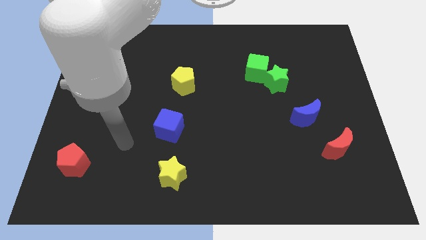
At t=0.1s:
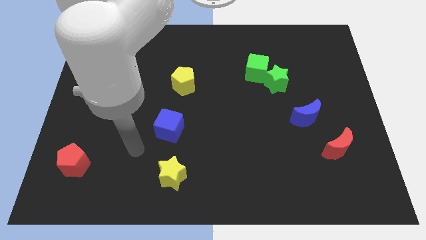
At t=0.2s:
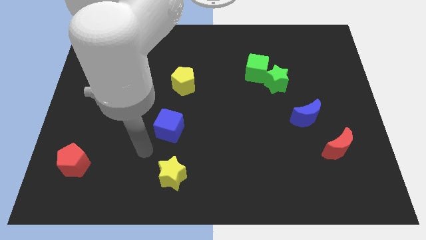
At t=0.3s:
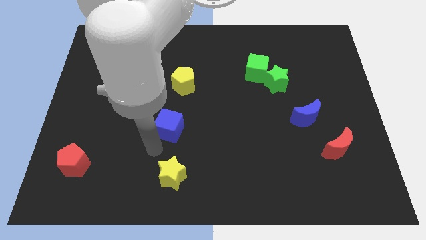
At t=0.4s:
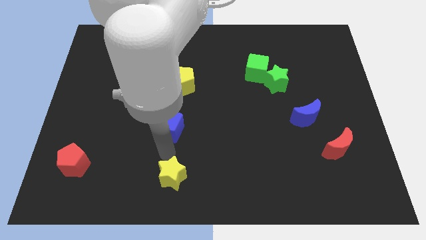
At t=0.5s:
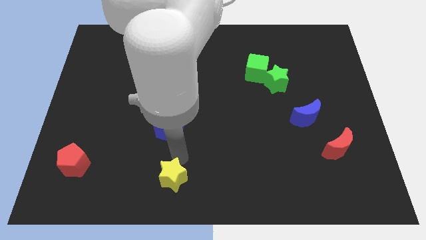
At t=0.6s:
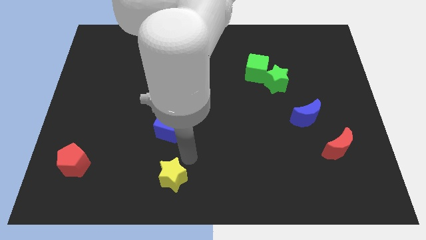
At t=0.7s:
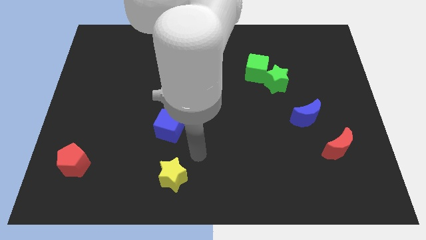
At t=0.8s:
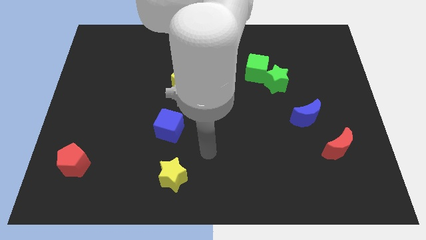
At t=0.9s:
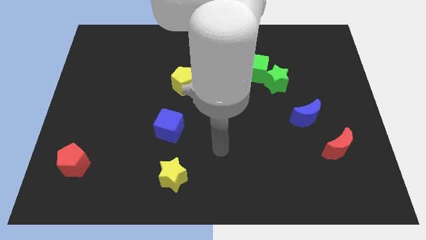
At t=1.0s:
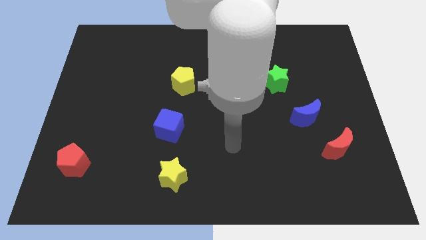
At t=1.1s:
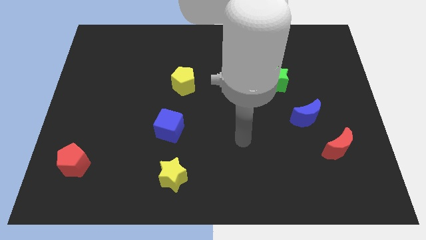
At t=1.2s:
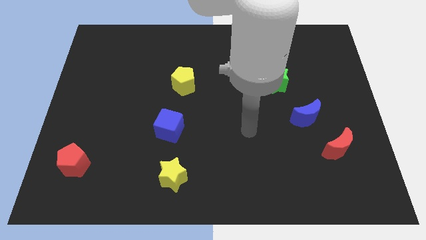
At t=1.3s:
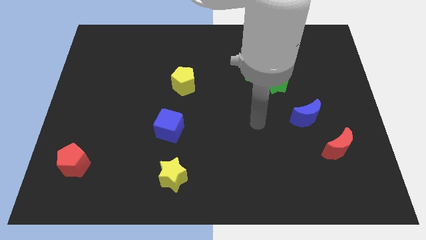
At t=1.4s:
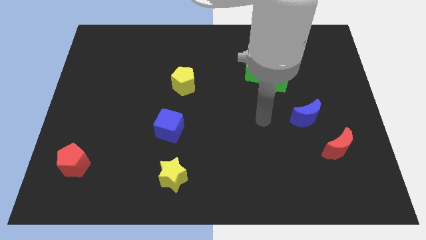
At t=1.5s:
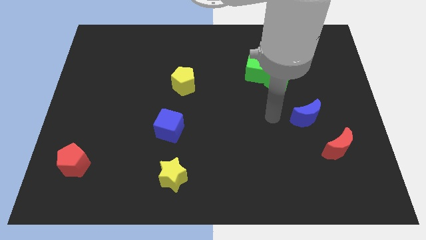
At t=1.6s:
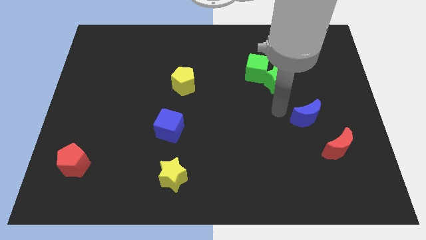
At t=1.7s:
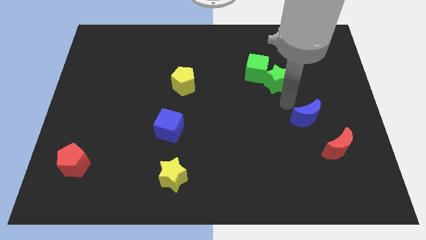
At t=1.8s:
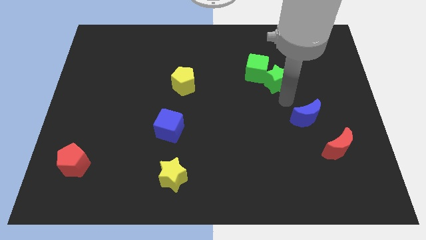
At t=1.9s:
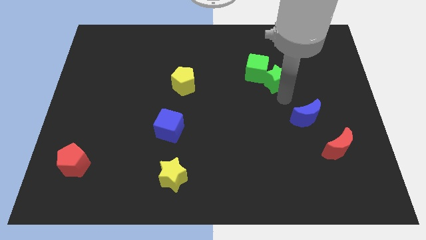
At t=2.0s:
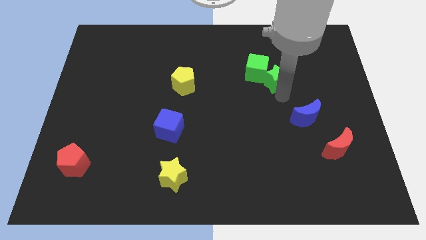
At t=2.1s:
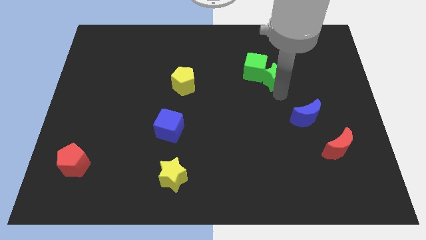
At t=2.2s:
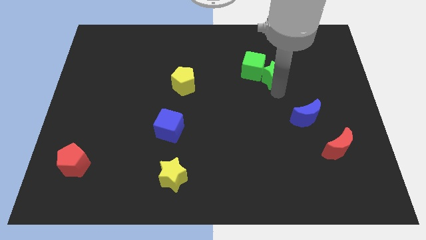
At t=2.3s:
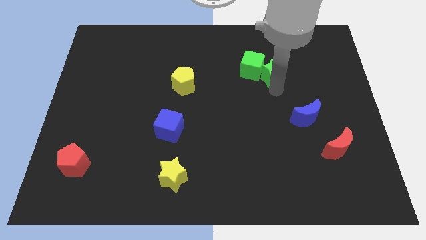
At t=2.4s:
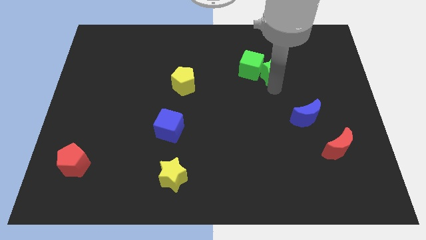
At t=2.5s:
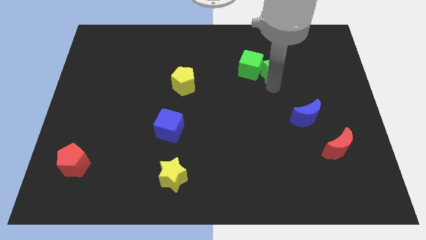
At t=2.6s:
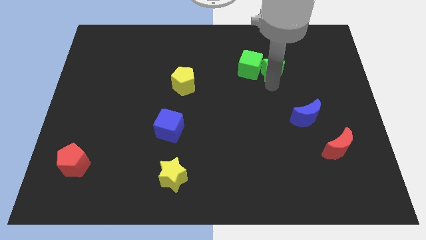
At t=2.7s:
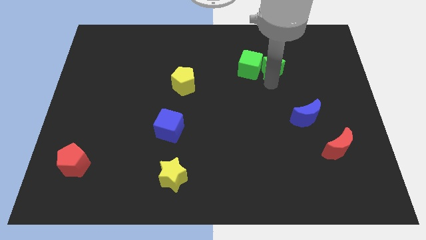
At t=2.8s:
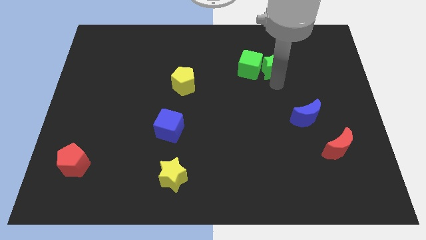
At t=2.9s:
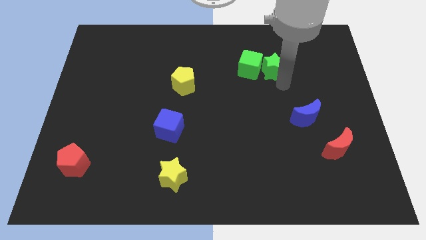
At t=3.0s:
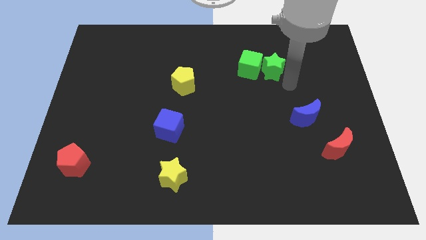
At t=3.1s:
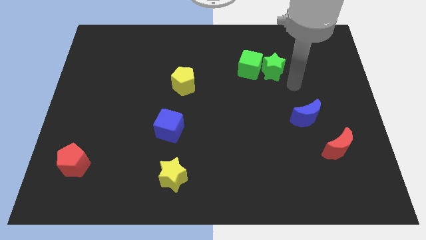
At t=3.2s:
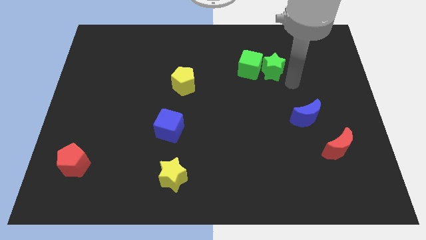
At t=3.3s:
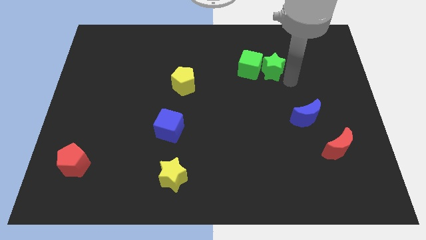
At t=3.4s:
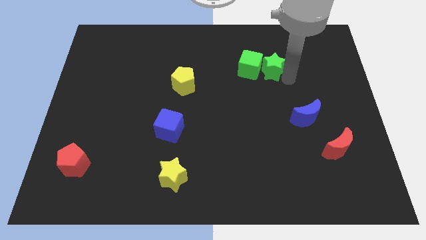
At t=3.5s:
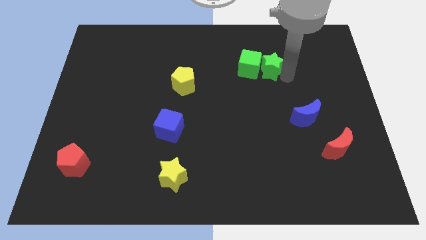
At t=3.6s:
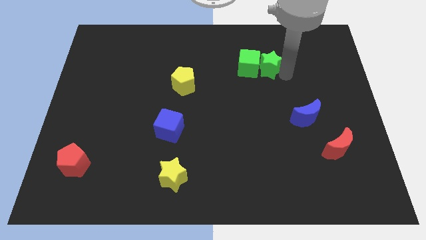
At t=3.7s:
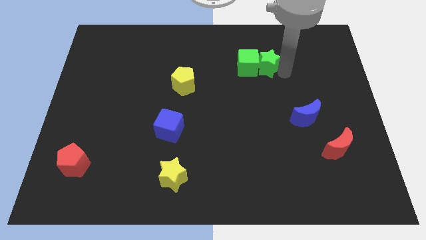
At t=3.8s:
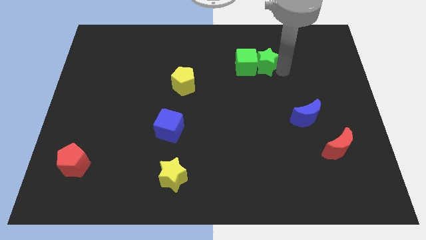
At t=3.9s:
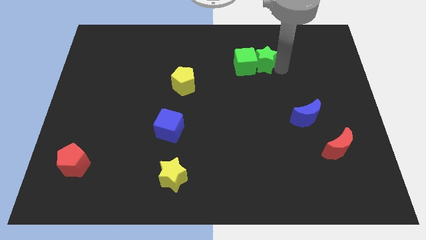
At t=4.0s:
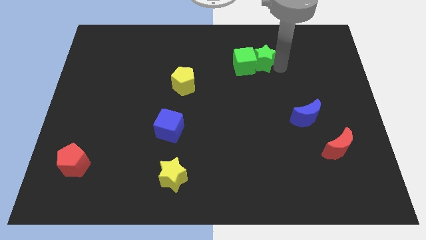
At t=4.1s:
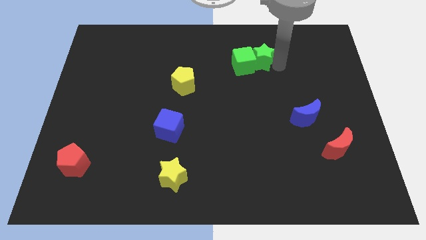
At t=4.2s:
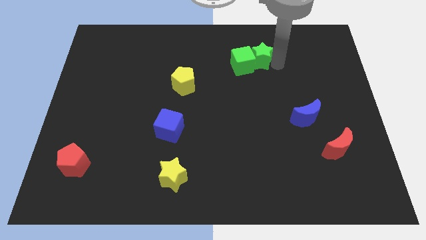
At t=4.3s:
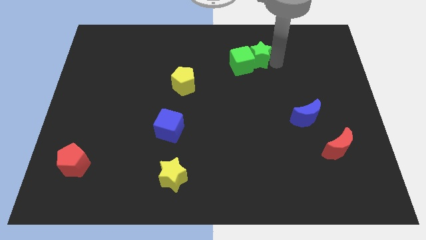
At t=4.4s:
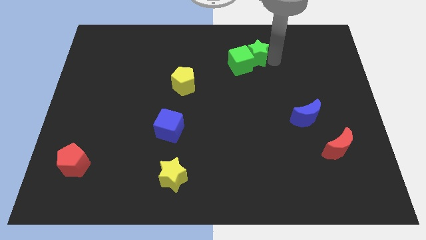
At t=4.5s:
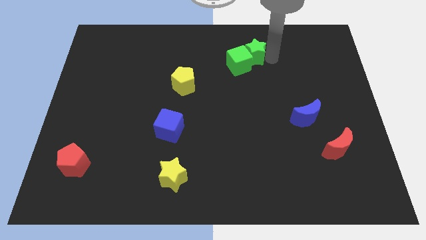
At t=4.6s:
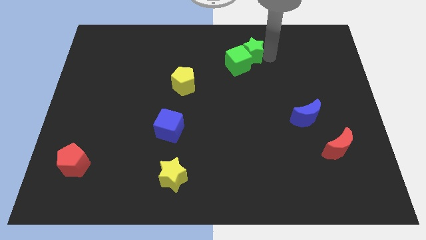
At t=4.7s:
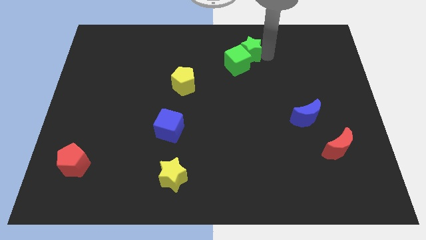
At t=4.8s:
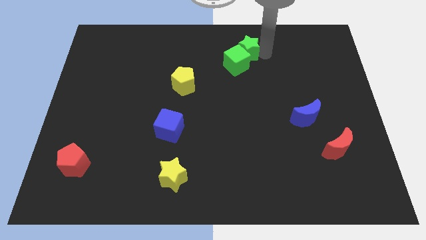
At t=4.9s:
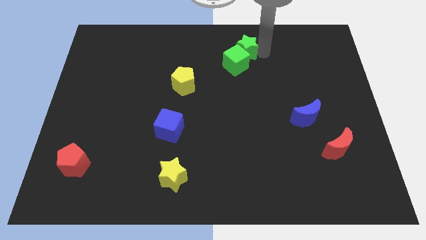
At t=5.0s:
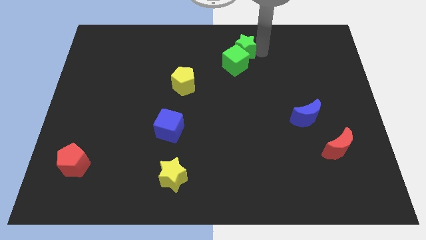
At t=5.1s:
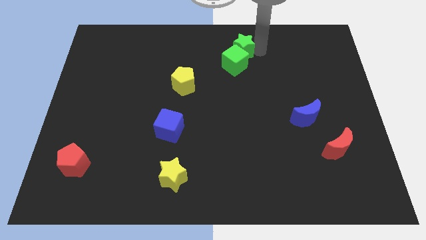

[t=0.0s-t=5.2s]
put the green star to the top

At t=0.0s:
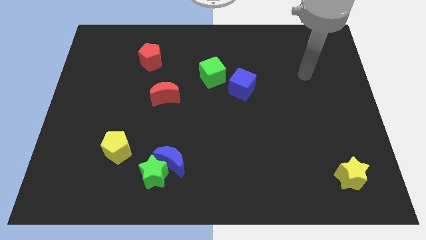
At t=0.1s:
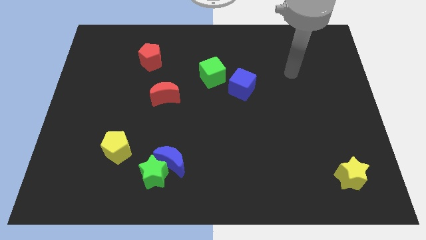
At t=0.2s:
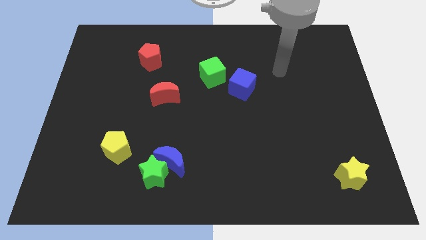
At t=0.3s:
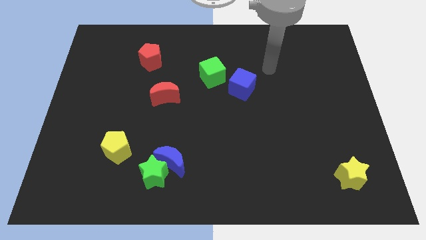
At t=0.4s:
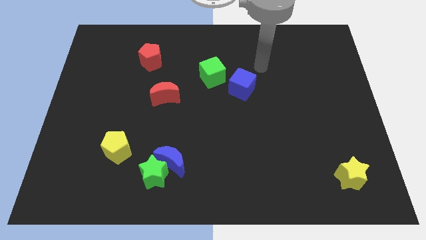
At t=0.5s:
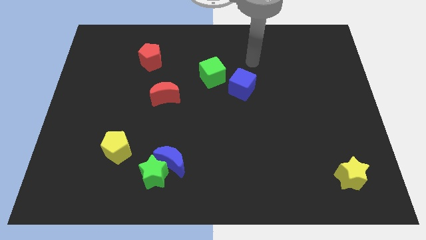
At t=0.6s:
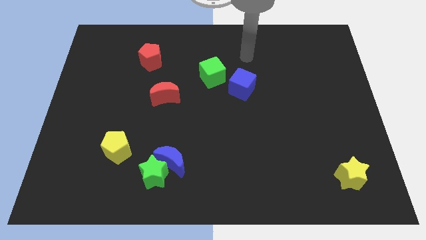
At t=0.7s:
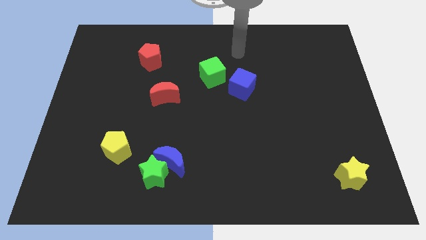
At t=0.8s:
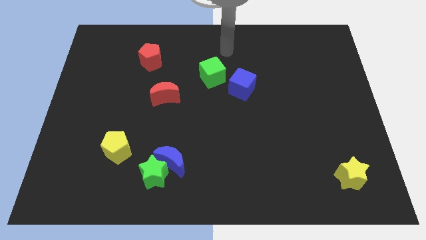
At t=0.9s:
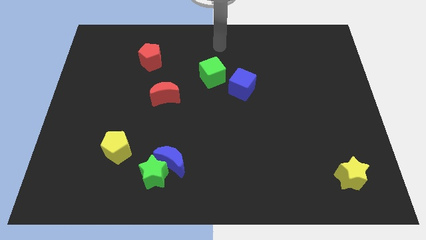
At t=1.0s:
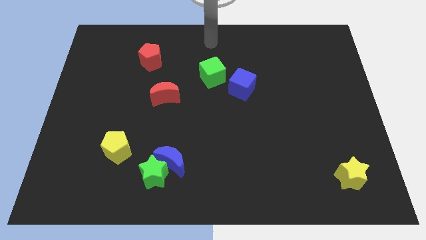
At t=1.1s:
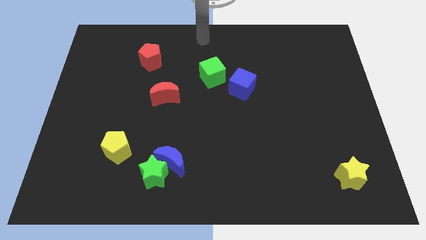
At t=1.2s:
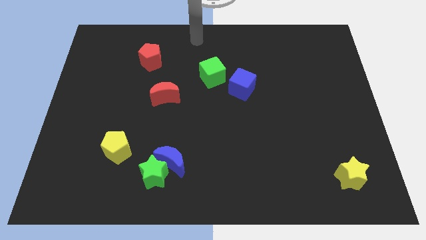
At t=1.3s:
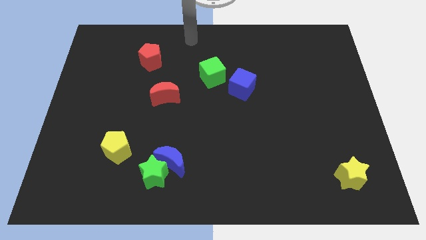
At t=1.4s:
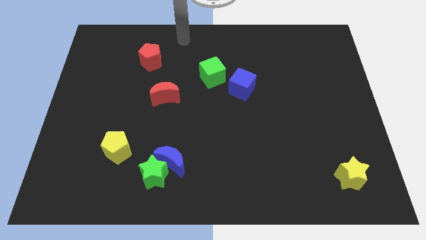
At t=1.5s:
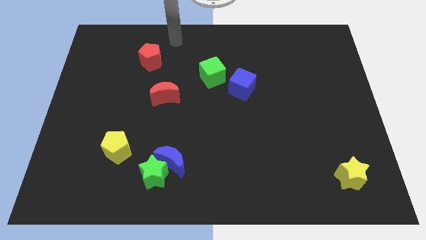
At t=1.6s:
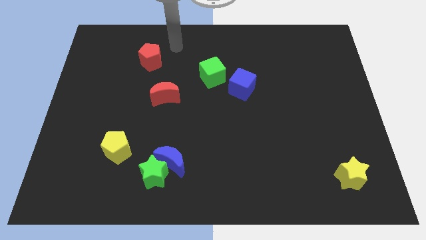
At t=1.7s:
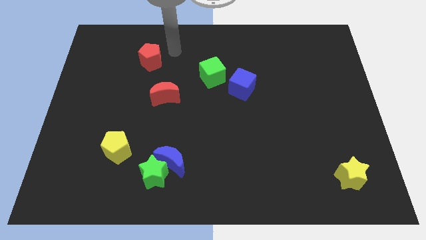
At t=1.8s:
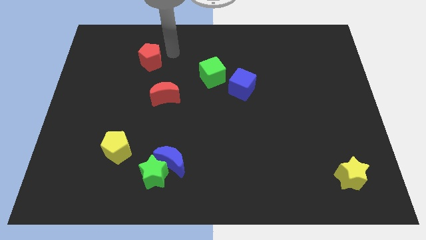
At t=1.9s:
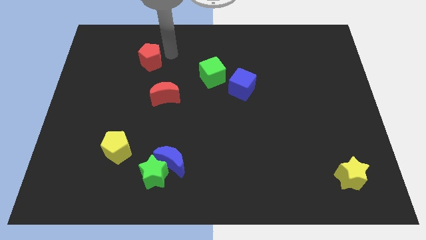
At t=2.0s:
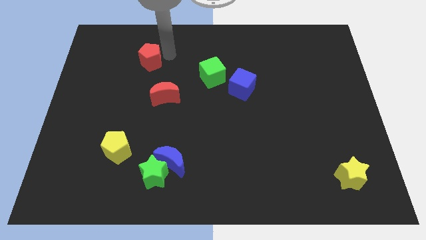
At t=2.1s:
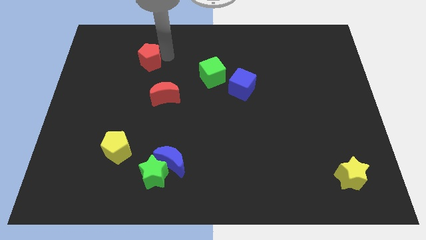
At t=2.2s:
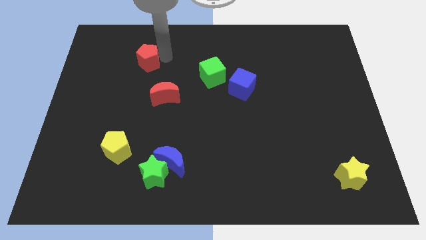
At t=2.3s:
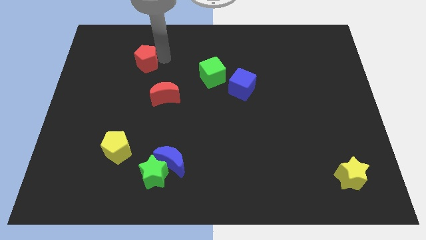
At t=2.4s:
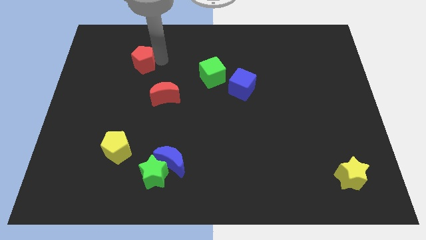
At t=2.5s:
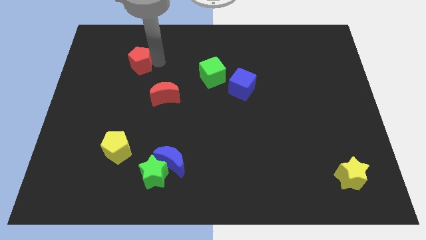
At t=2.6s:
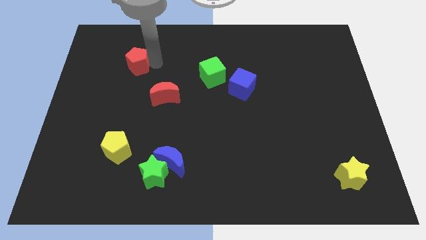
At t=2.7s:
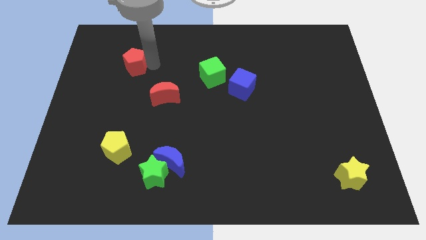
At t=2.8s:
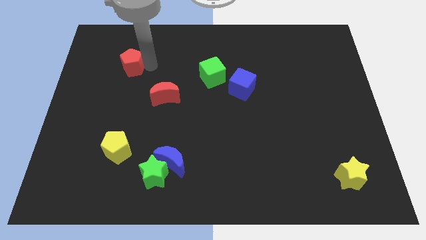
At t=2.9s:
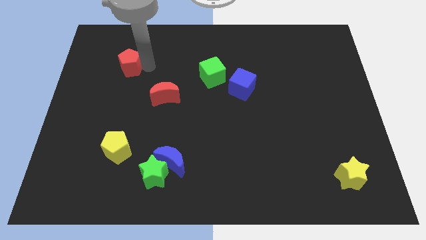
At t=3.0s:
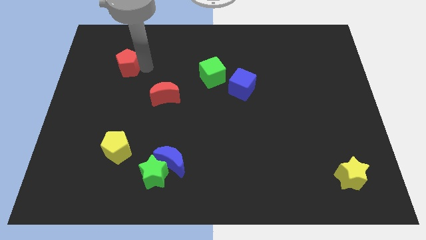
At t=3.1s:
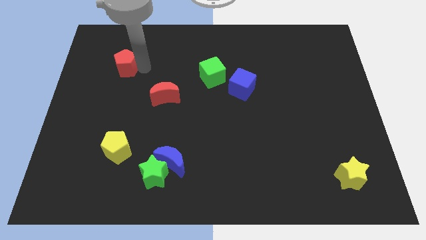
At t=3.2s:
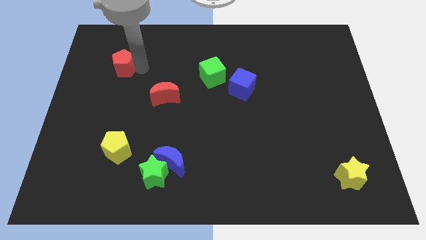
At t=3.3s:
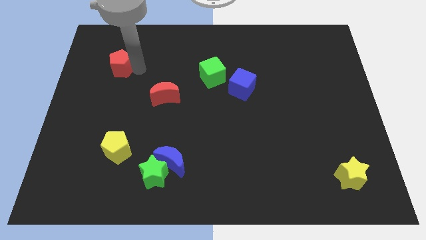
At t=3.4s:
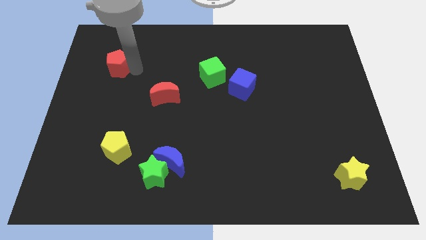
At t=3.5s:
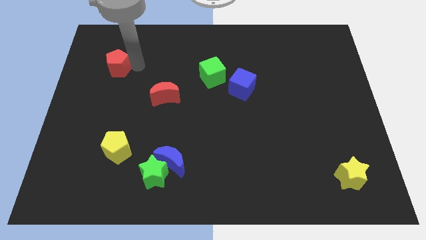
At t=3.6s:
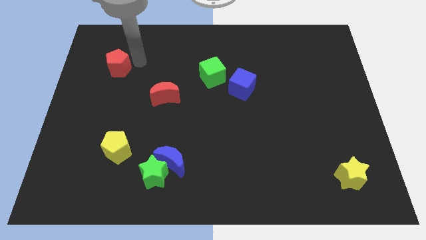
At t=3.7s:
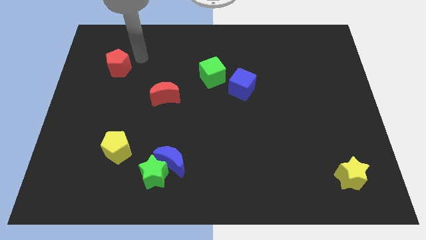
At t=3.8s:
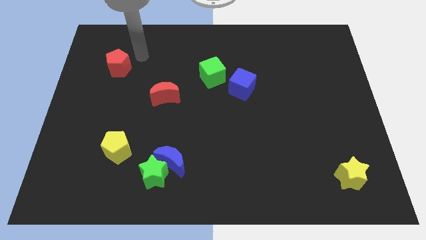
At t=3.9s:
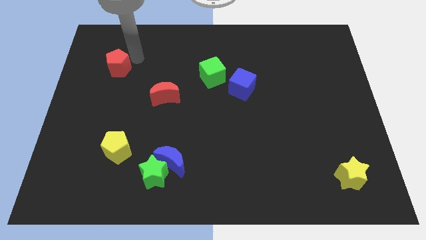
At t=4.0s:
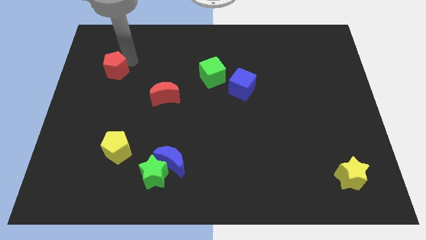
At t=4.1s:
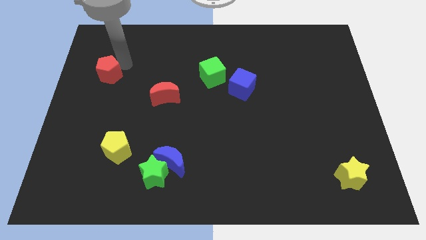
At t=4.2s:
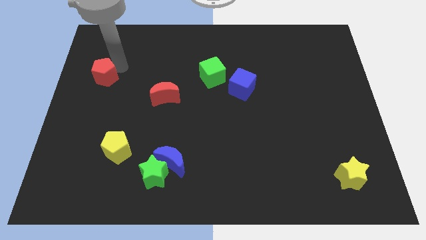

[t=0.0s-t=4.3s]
push the red pentagon to the left side of the board
